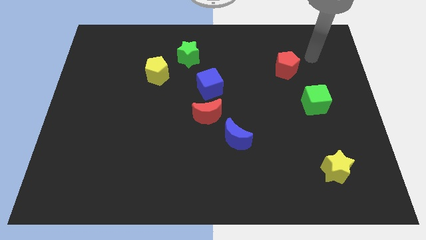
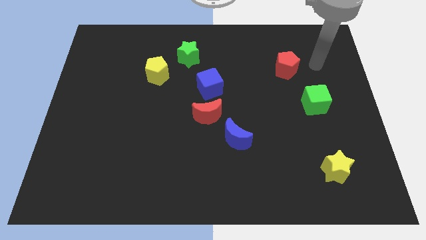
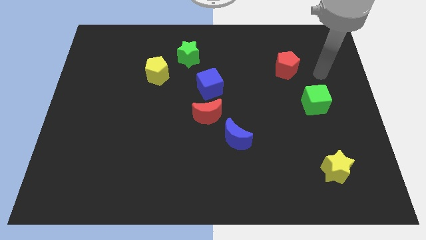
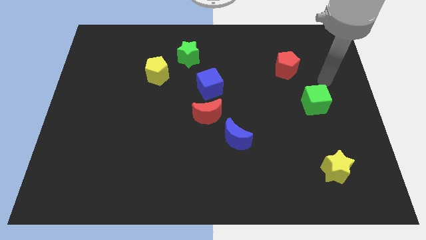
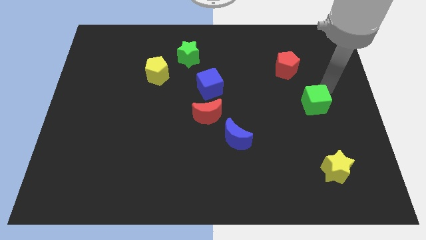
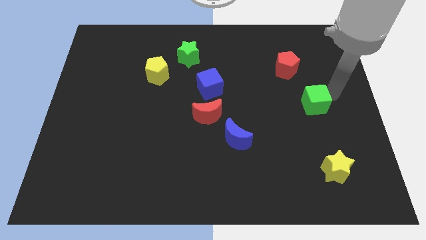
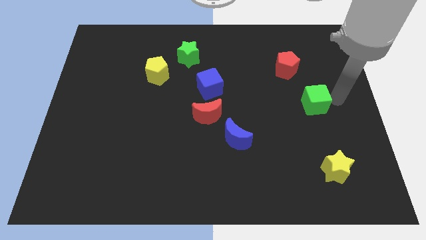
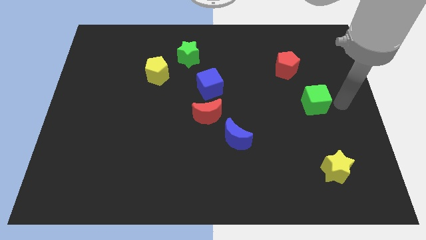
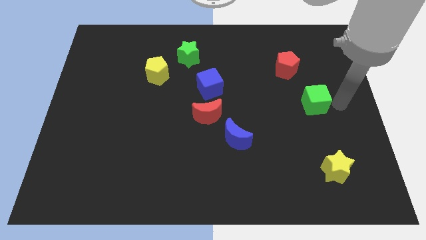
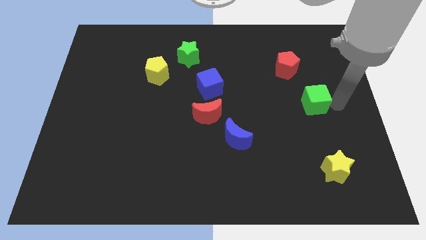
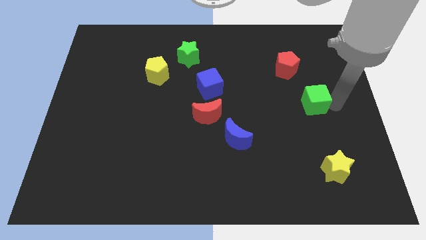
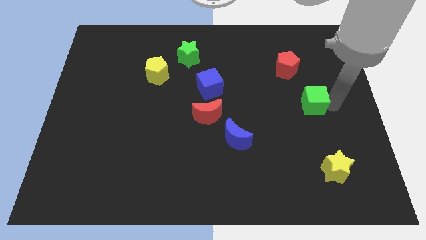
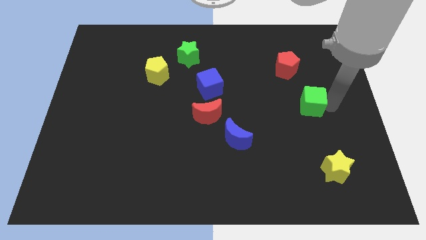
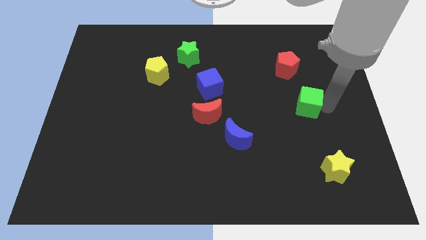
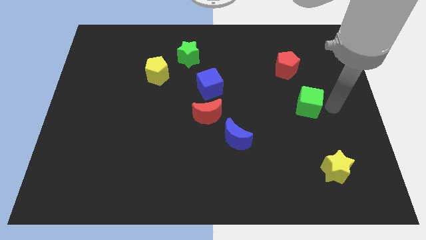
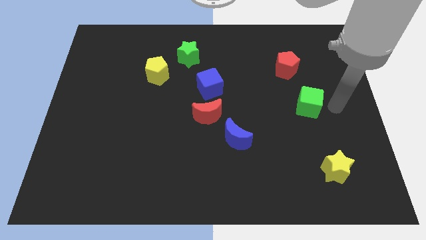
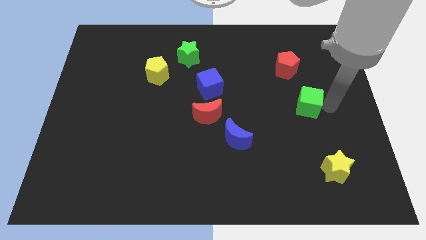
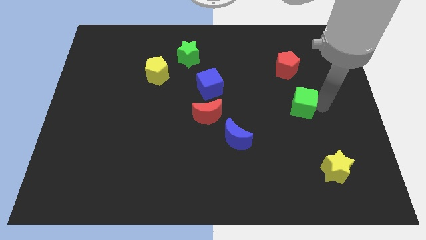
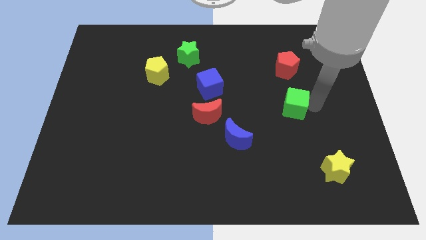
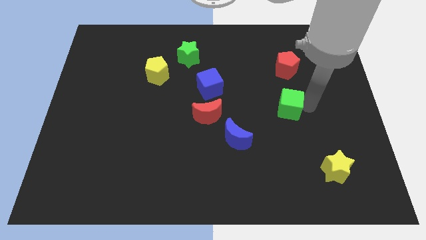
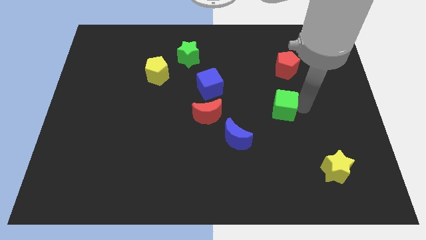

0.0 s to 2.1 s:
push the green cube to the left a bit

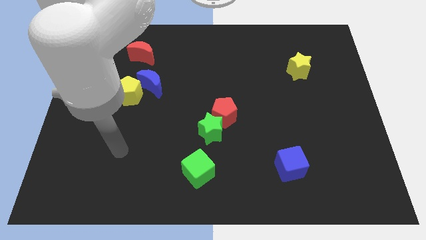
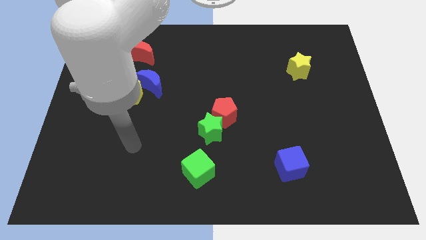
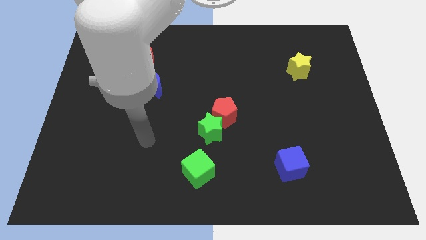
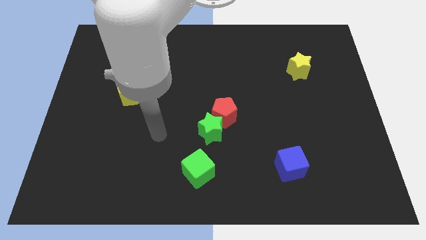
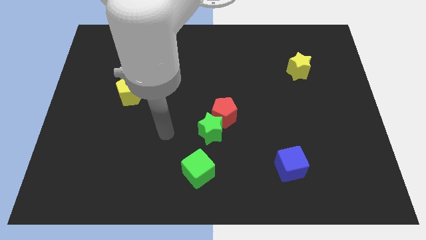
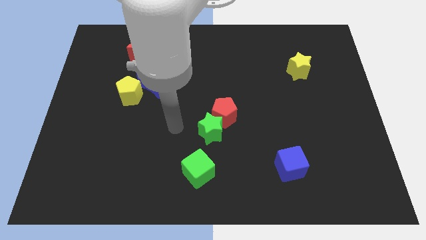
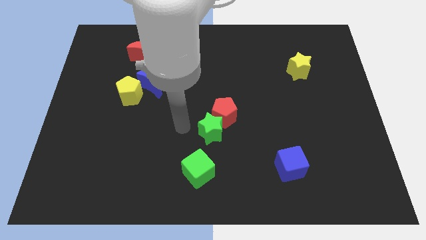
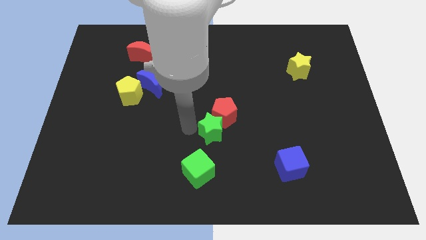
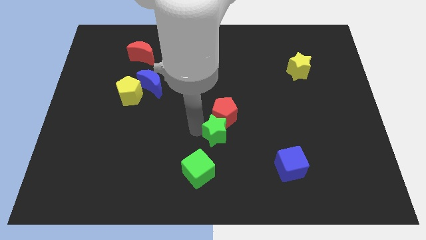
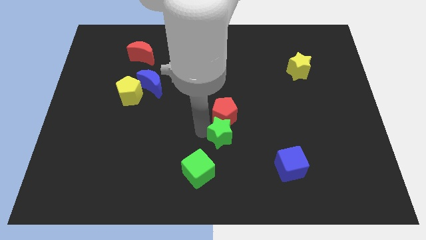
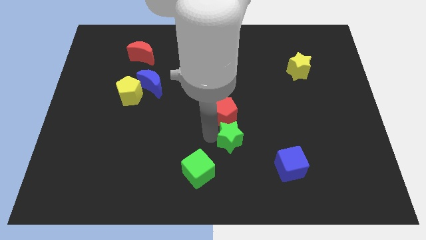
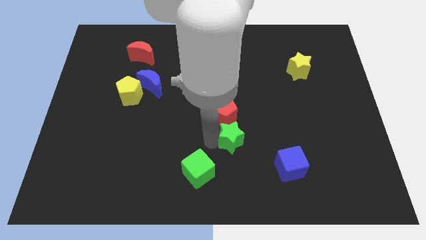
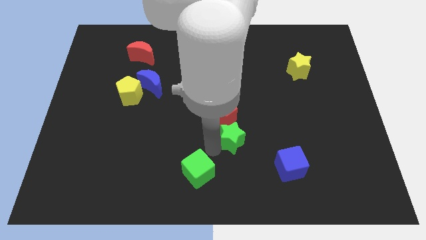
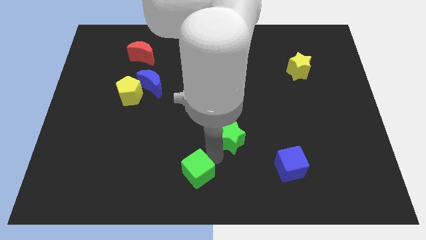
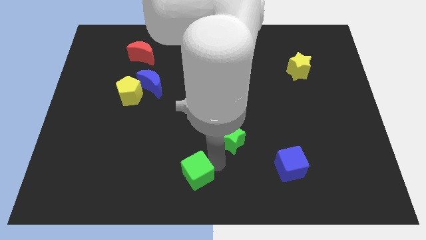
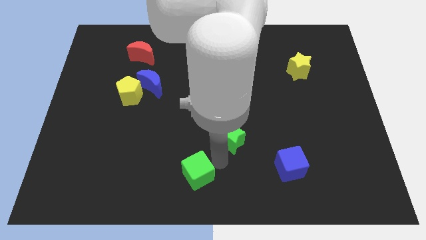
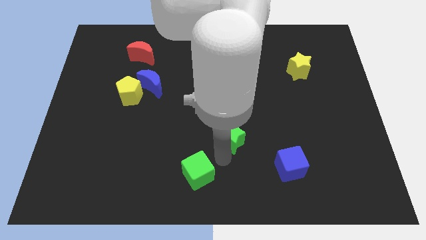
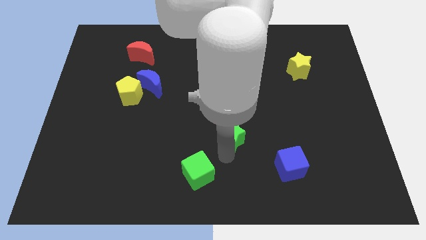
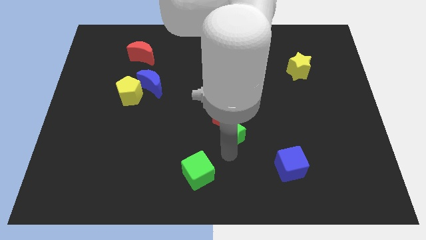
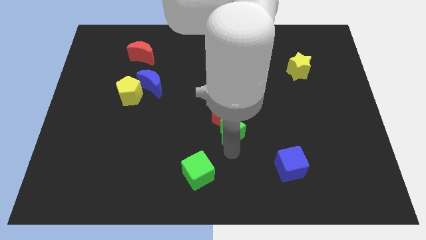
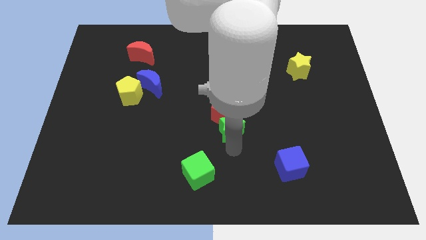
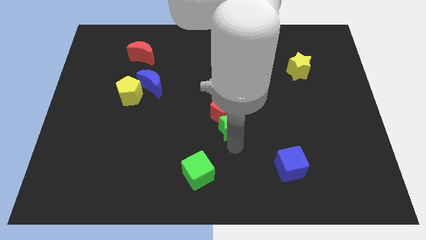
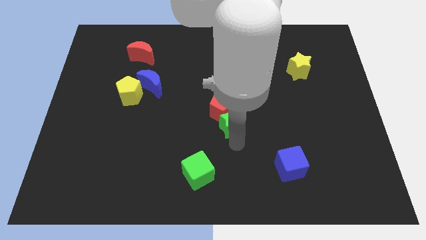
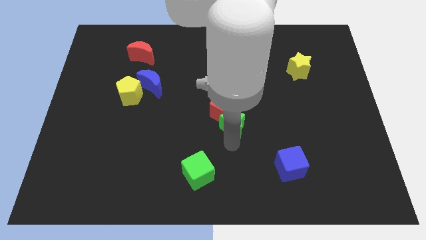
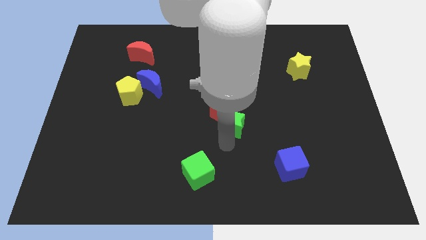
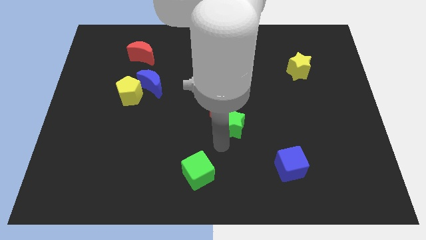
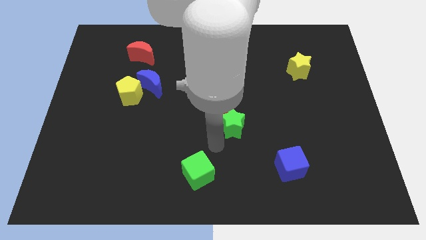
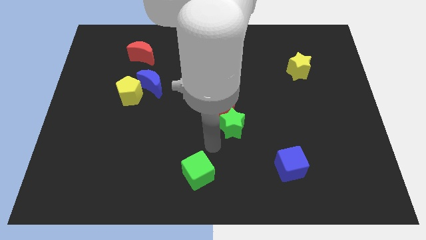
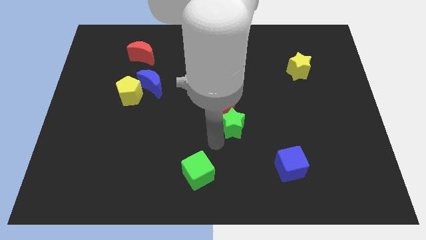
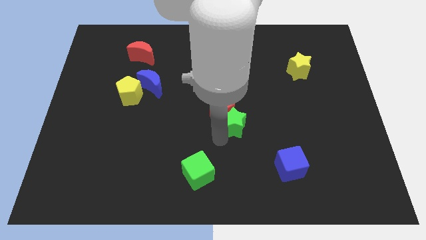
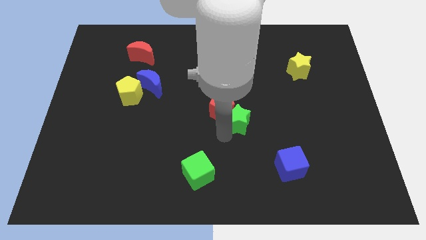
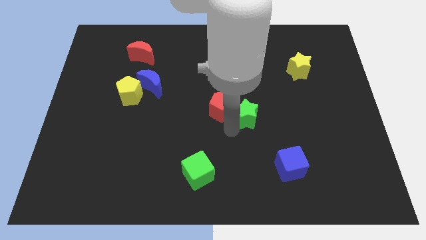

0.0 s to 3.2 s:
slide the green star upwards and then right a bit

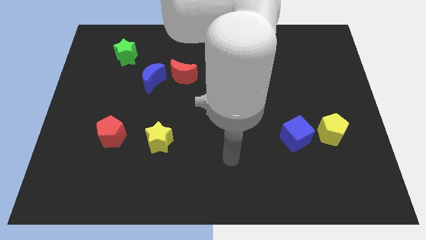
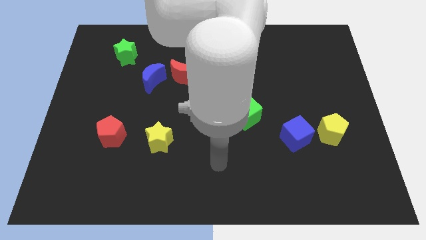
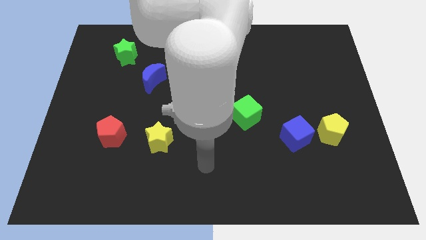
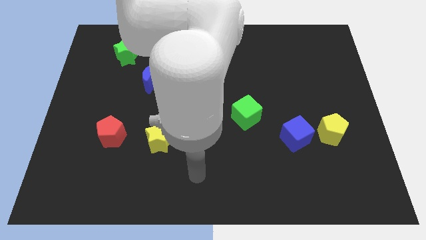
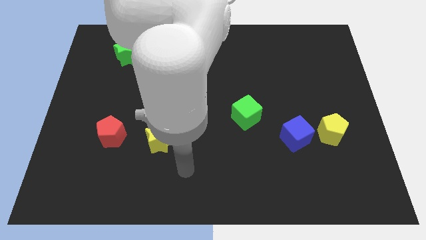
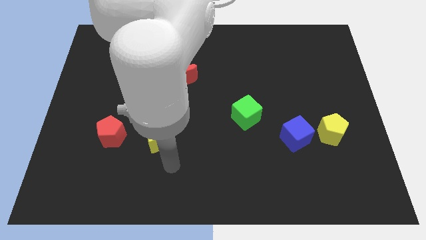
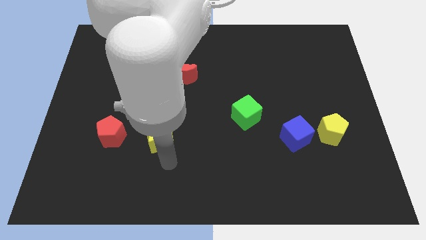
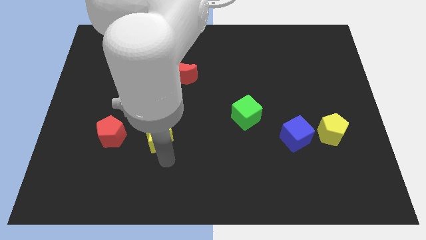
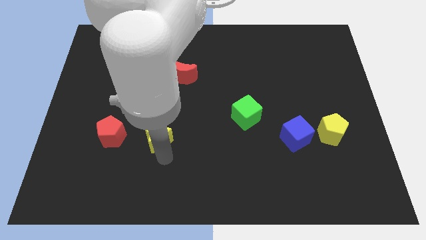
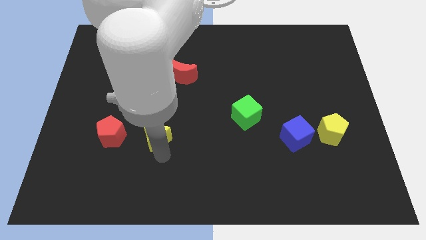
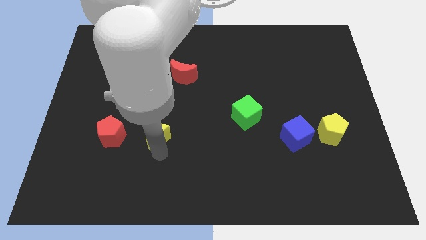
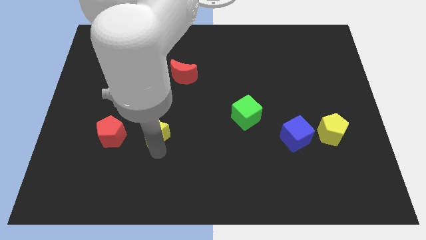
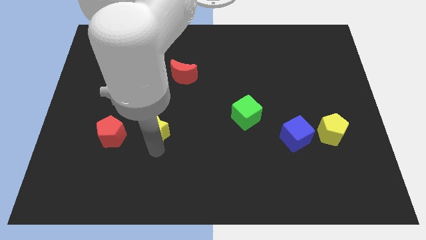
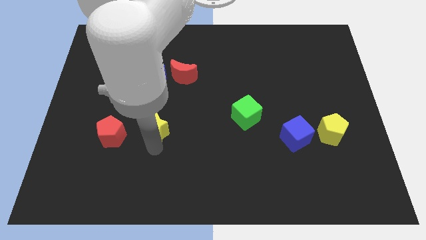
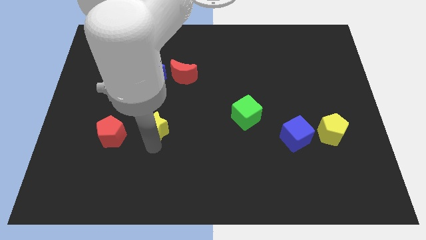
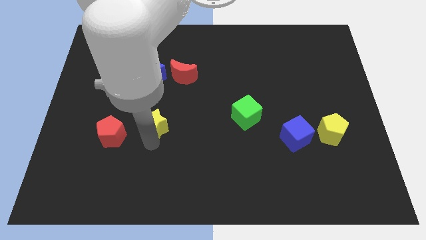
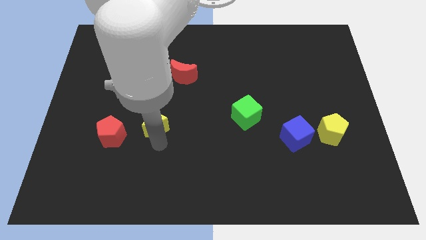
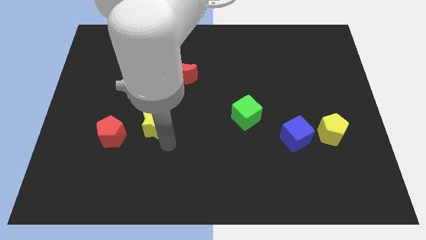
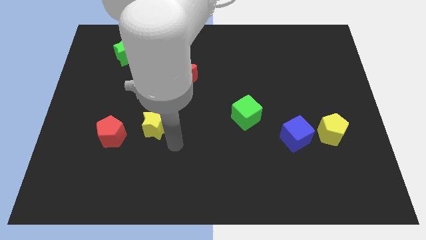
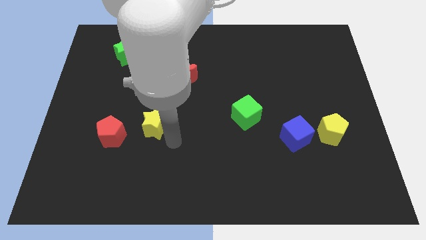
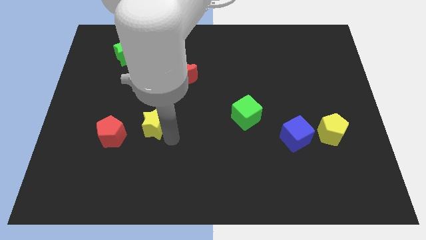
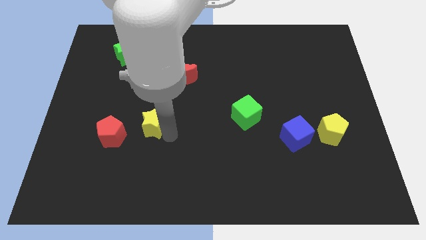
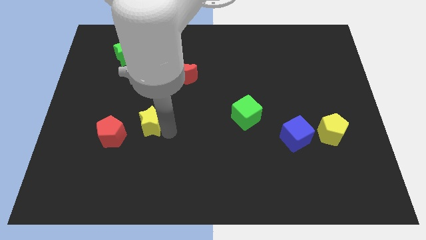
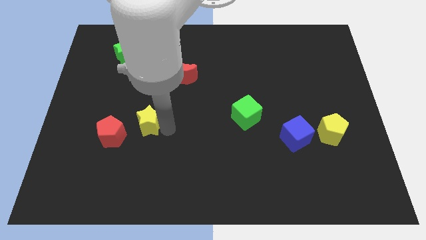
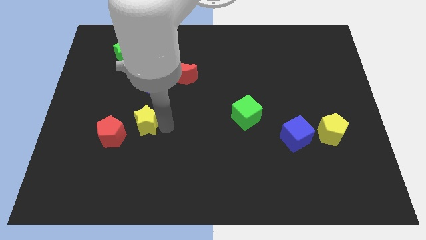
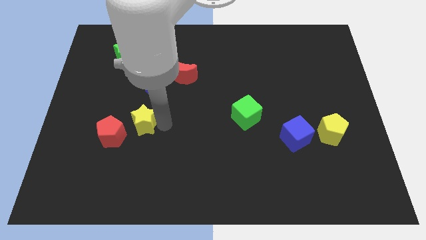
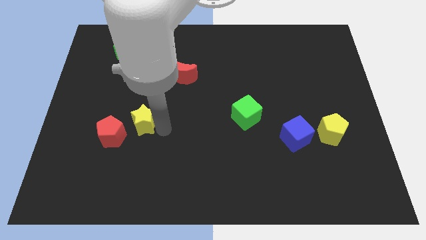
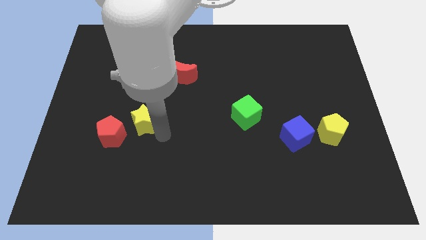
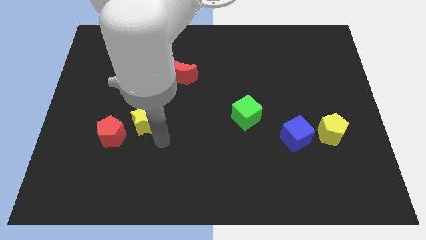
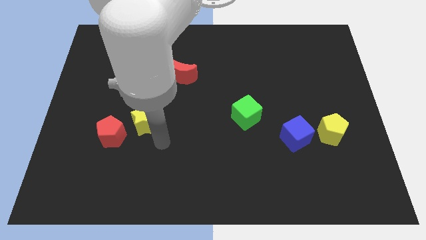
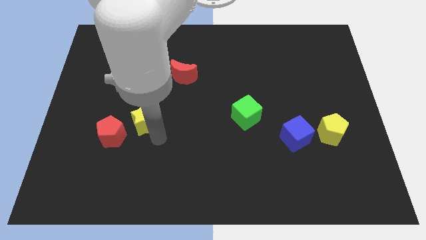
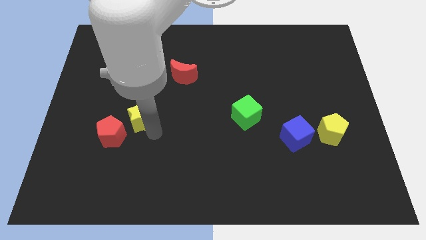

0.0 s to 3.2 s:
slightly slide the yellow star upwards and then to the left
